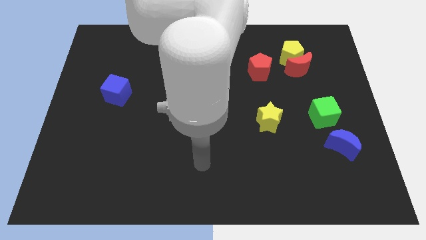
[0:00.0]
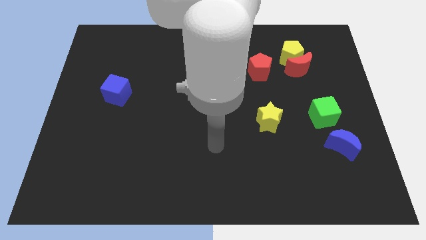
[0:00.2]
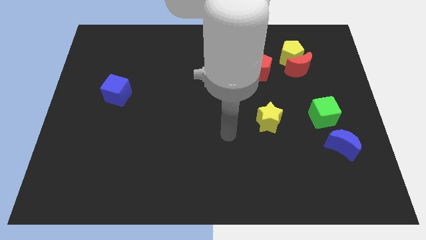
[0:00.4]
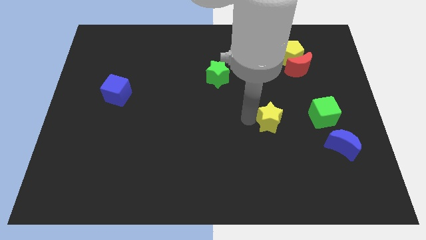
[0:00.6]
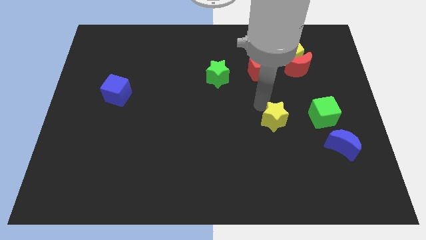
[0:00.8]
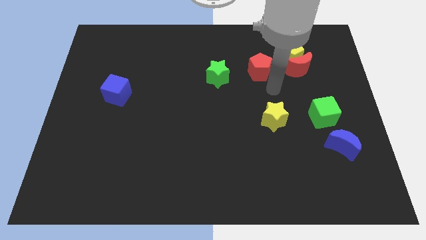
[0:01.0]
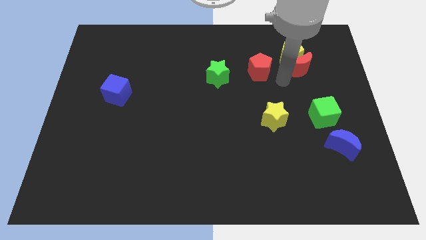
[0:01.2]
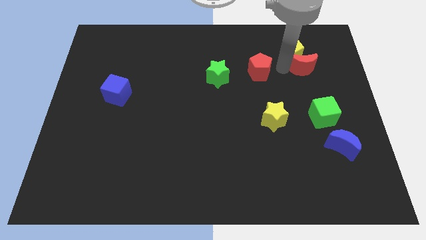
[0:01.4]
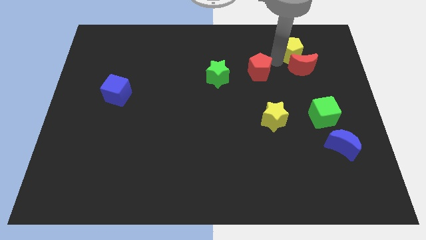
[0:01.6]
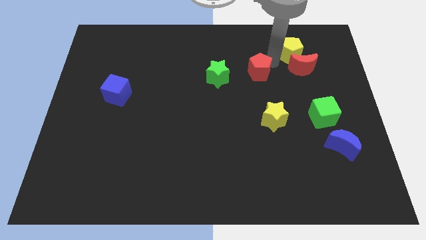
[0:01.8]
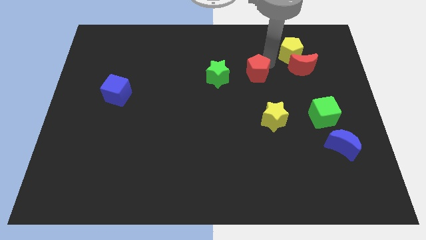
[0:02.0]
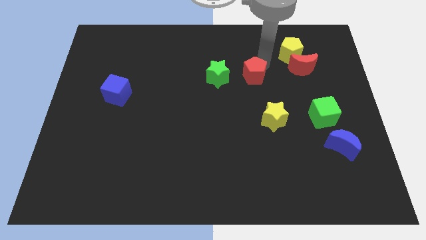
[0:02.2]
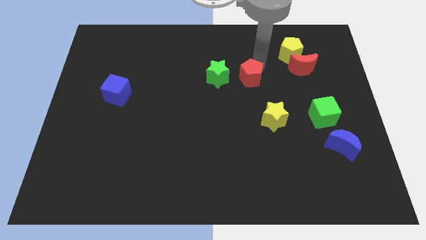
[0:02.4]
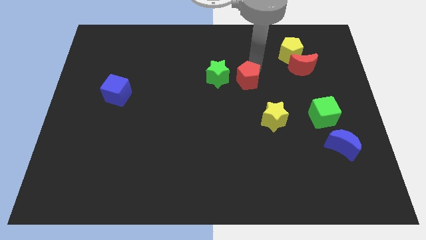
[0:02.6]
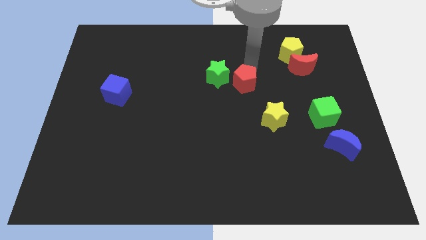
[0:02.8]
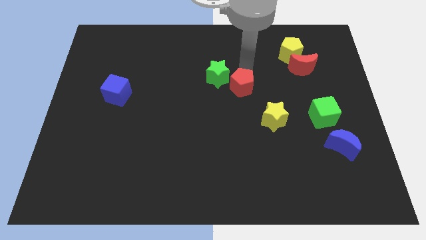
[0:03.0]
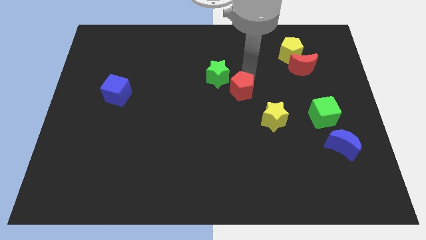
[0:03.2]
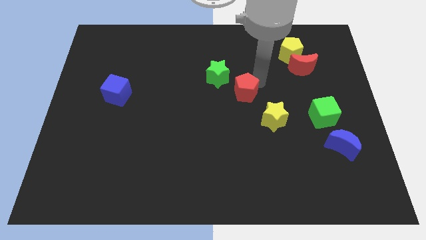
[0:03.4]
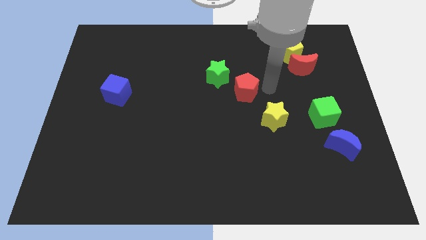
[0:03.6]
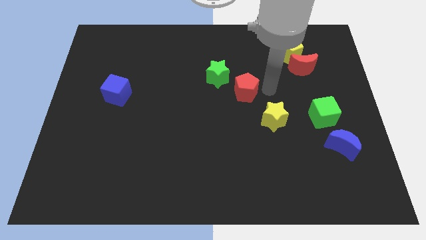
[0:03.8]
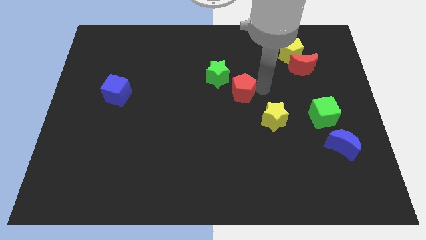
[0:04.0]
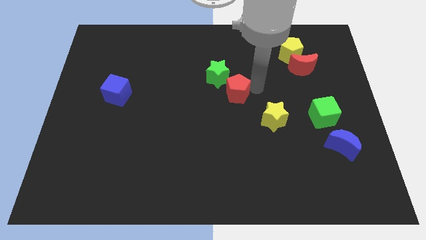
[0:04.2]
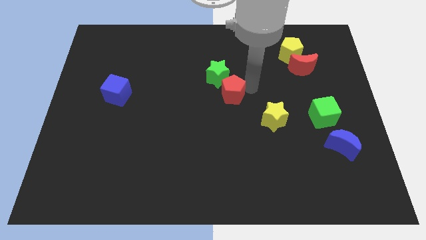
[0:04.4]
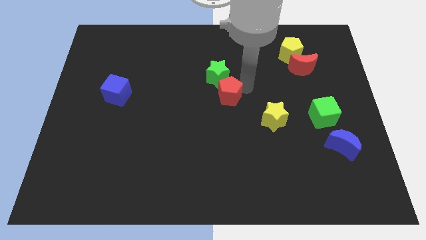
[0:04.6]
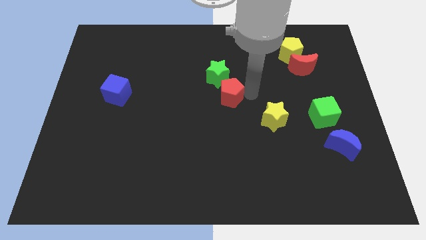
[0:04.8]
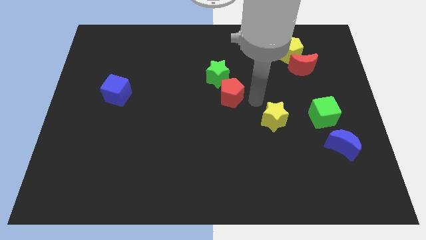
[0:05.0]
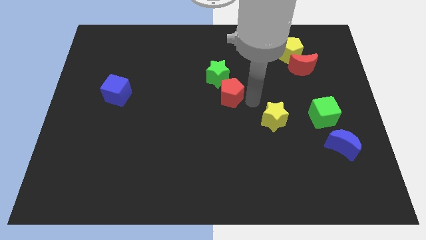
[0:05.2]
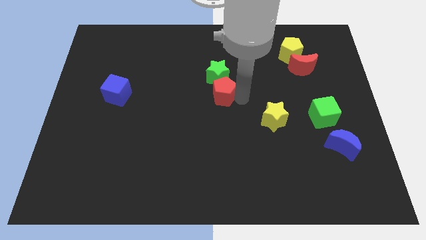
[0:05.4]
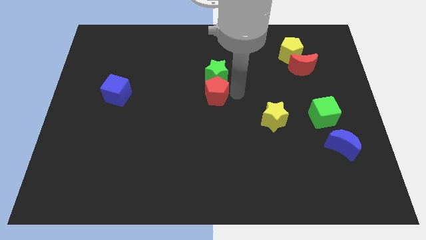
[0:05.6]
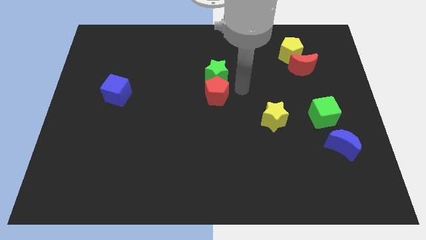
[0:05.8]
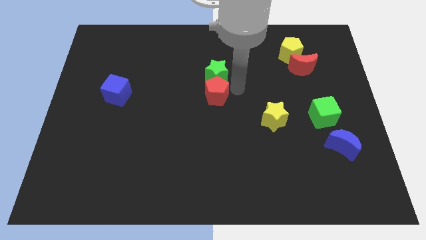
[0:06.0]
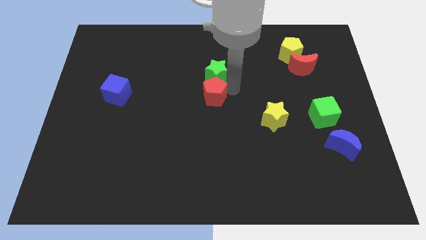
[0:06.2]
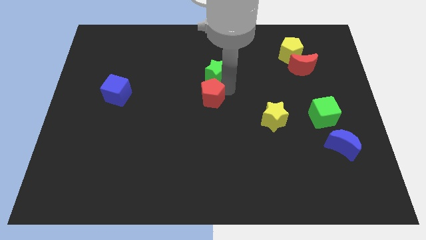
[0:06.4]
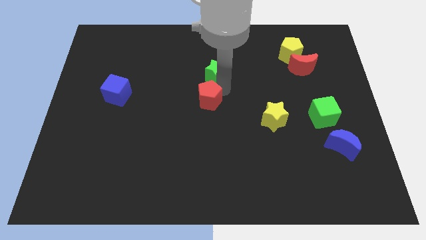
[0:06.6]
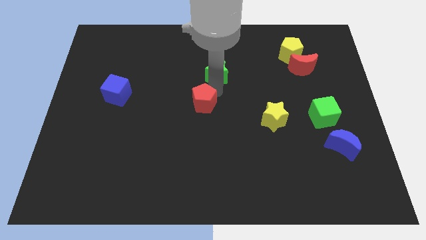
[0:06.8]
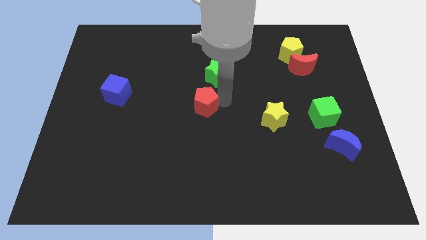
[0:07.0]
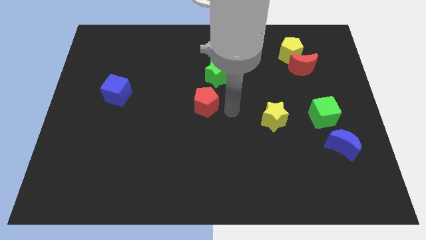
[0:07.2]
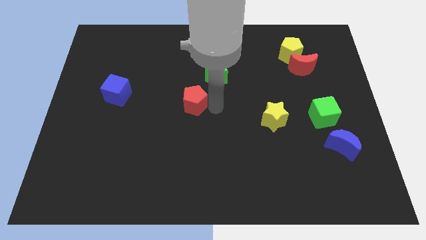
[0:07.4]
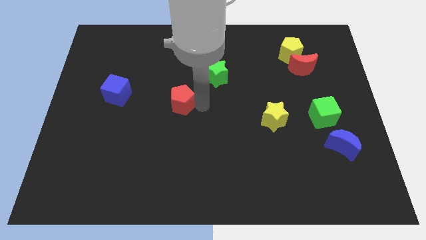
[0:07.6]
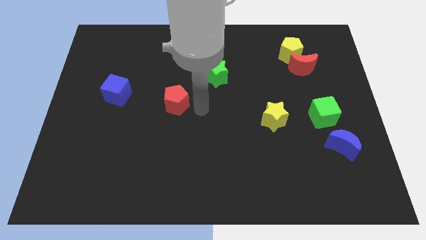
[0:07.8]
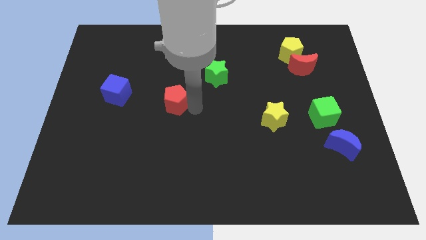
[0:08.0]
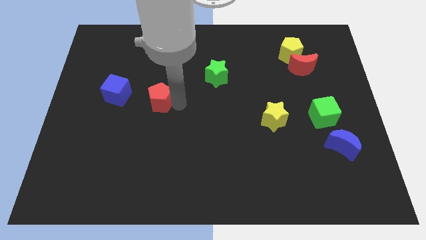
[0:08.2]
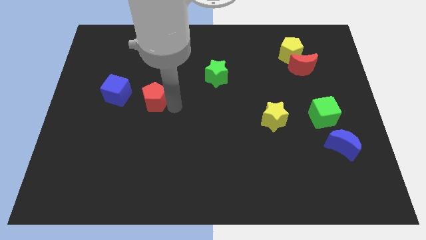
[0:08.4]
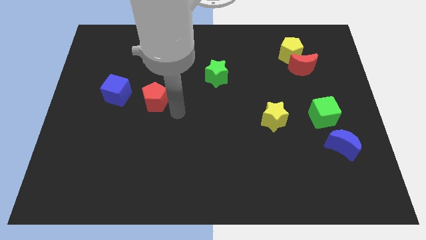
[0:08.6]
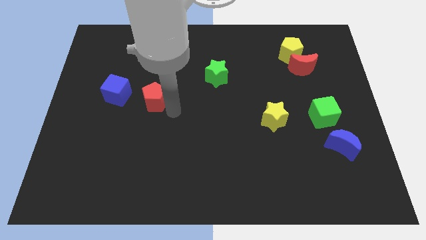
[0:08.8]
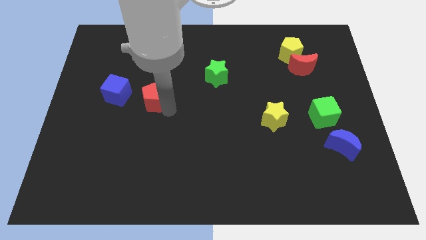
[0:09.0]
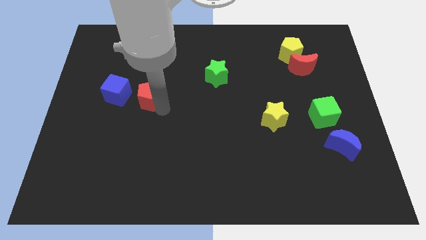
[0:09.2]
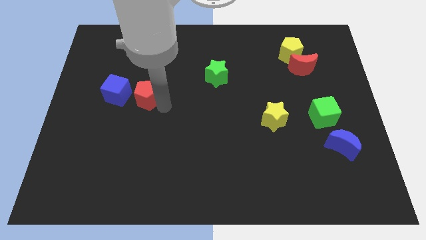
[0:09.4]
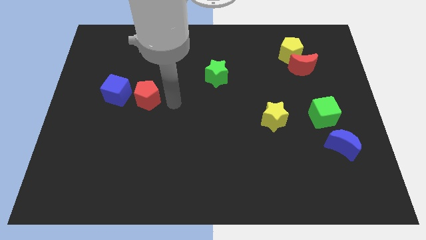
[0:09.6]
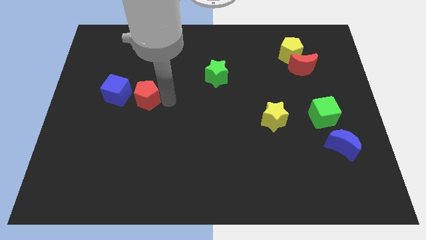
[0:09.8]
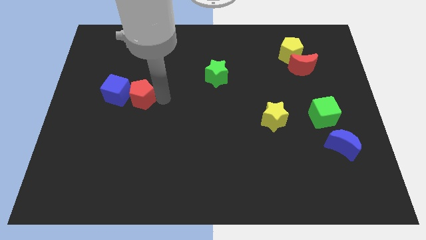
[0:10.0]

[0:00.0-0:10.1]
put the red pentagon close to the blue cube

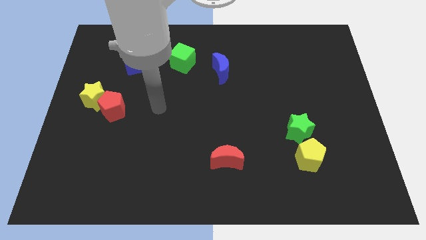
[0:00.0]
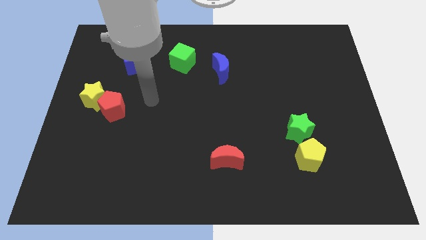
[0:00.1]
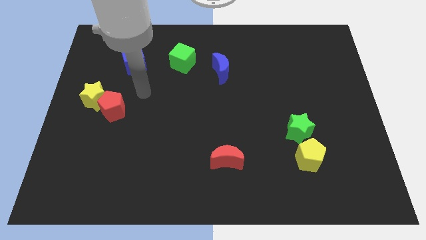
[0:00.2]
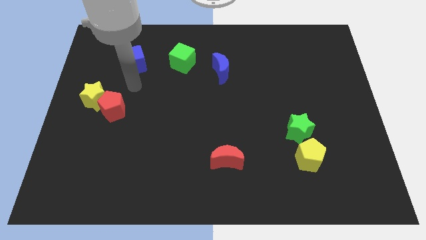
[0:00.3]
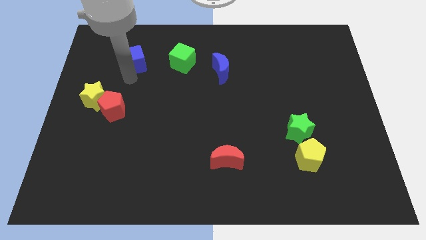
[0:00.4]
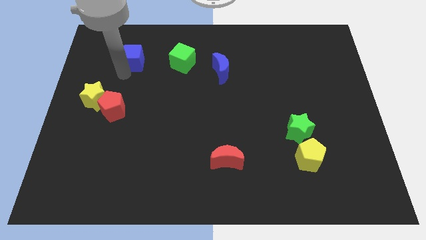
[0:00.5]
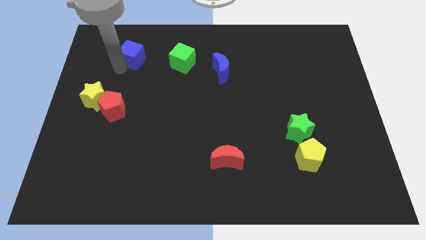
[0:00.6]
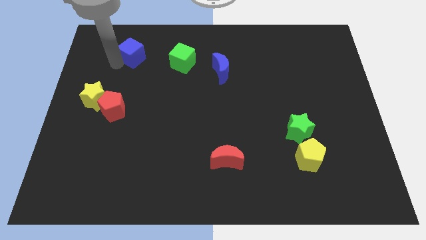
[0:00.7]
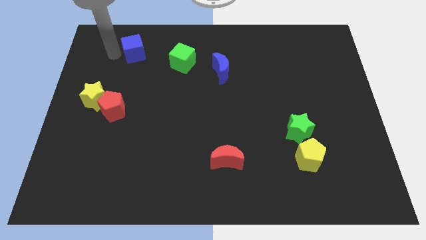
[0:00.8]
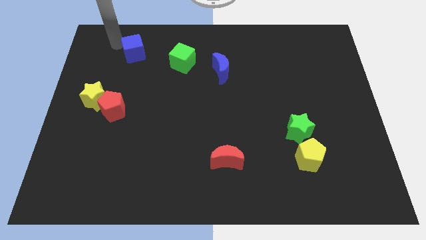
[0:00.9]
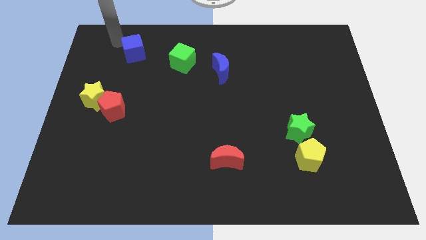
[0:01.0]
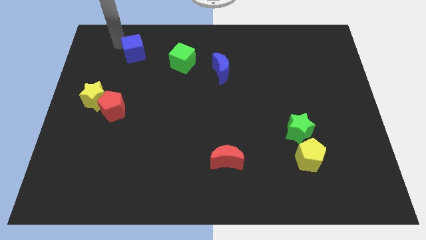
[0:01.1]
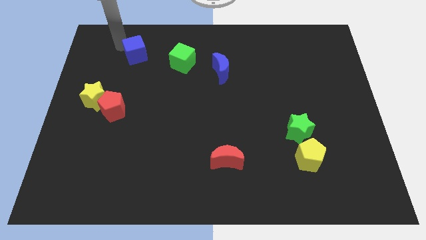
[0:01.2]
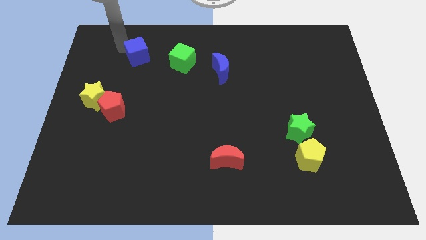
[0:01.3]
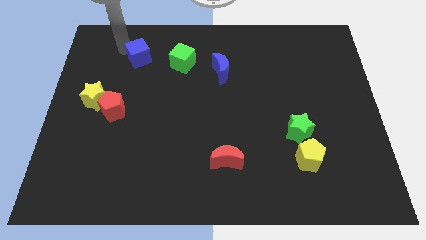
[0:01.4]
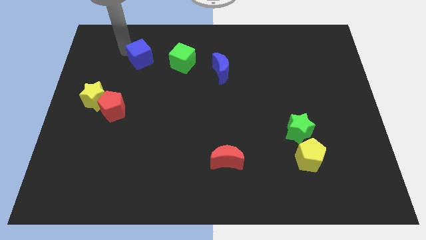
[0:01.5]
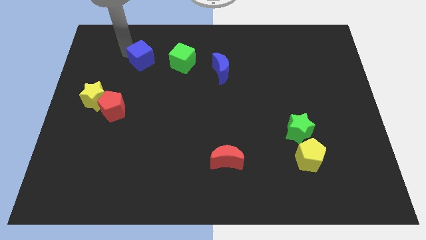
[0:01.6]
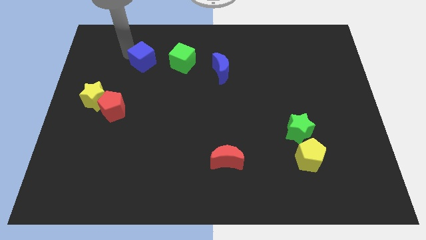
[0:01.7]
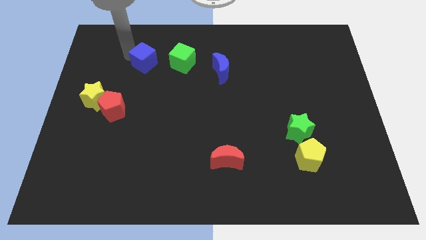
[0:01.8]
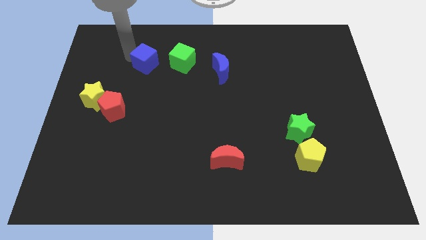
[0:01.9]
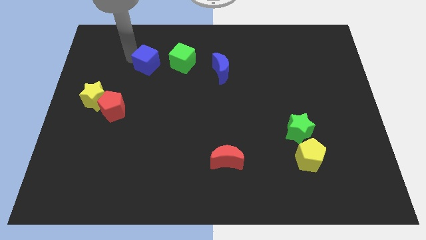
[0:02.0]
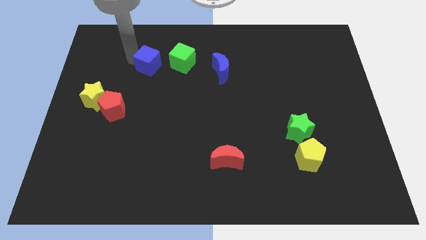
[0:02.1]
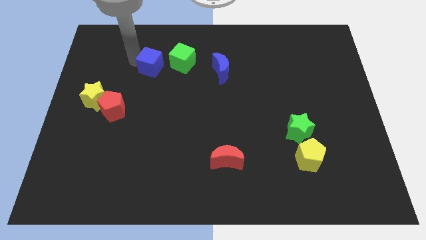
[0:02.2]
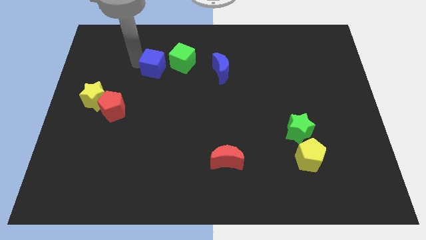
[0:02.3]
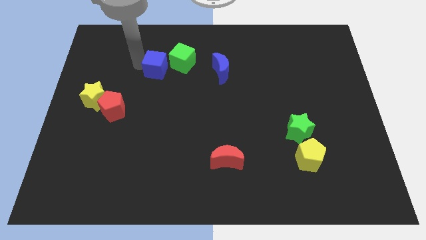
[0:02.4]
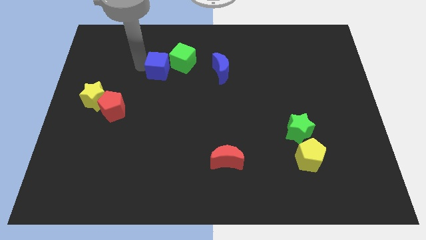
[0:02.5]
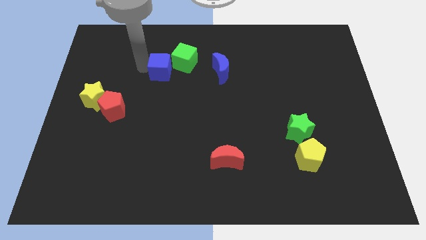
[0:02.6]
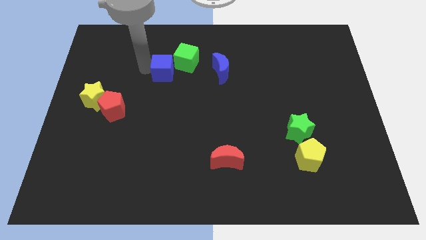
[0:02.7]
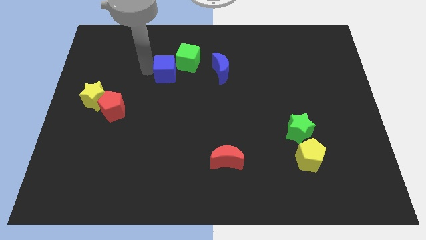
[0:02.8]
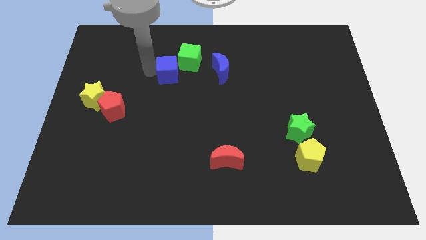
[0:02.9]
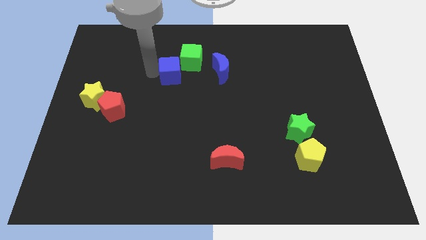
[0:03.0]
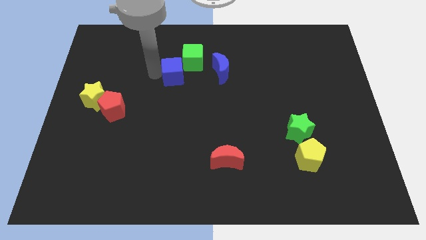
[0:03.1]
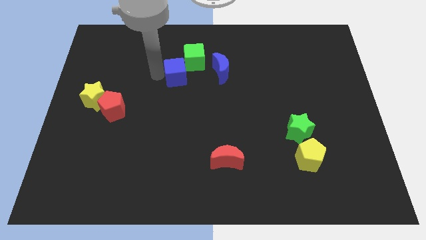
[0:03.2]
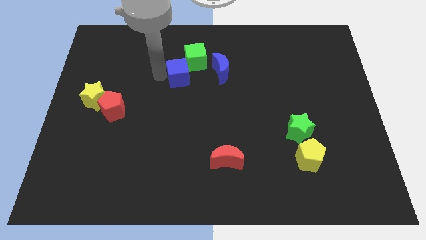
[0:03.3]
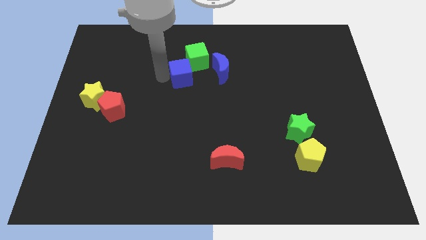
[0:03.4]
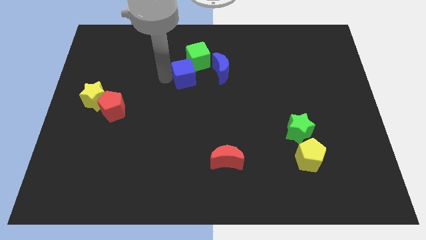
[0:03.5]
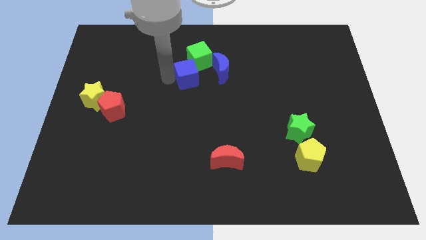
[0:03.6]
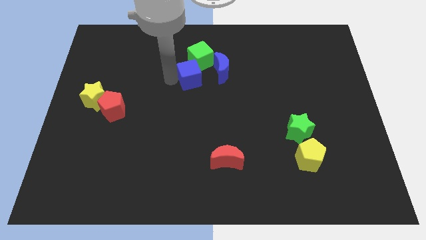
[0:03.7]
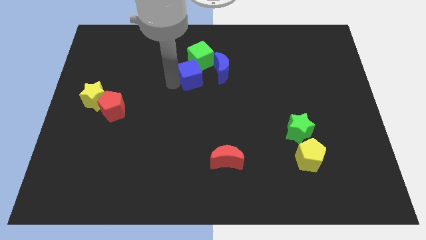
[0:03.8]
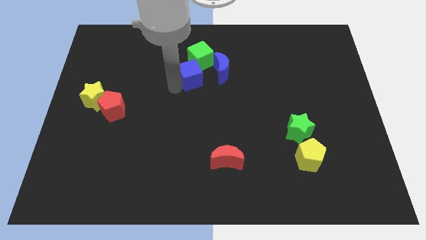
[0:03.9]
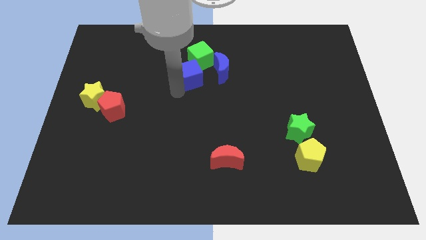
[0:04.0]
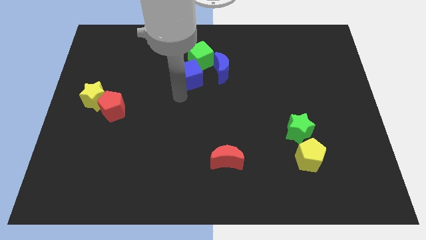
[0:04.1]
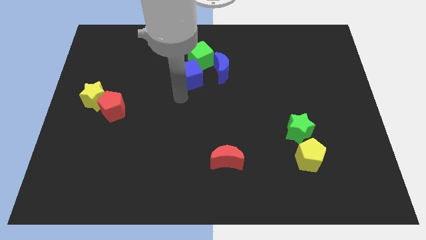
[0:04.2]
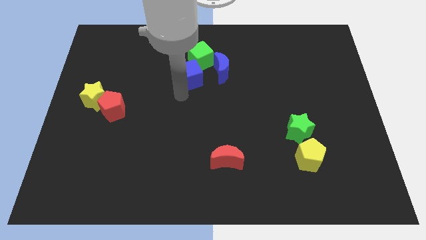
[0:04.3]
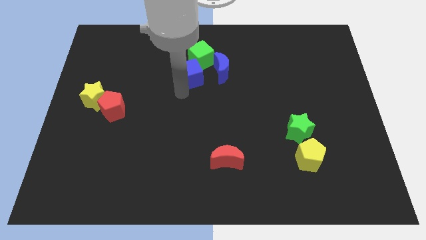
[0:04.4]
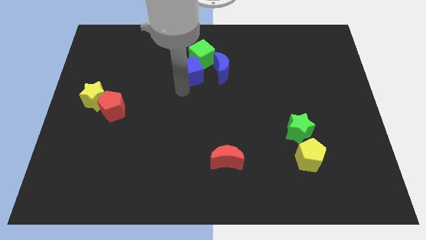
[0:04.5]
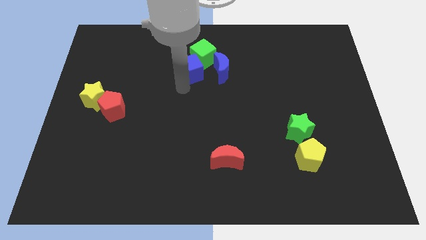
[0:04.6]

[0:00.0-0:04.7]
move the blue cube next to the green cube
